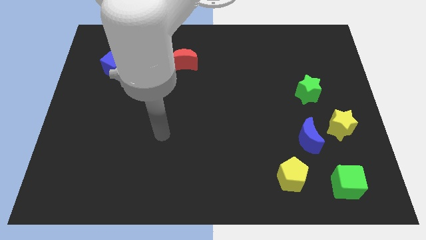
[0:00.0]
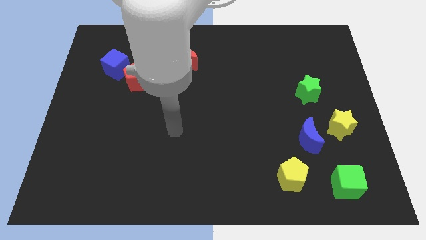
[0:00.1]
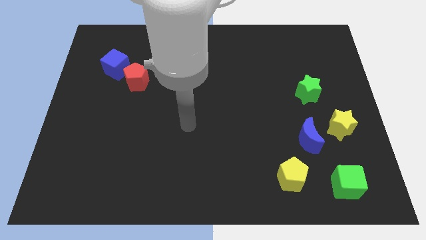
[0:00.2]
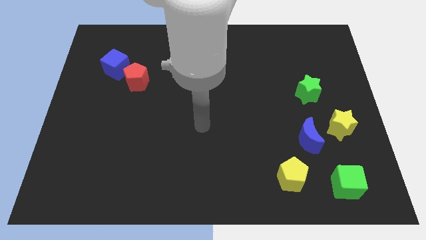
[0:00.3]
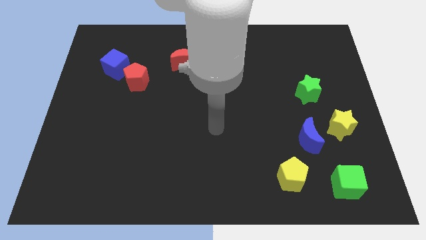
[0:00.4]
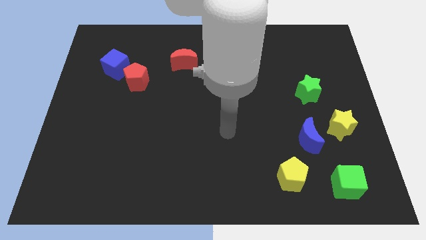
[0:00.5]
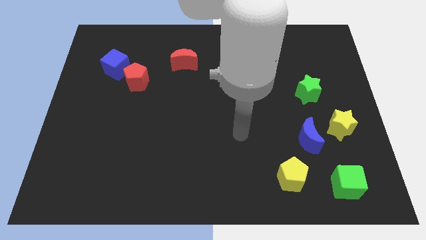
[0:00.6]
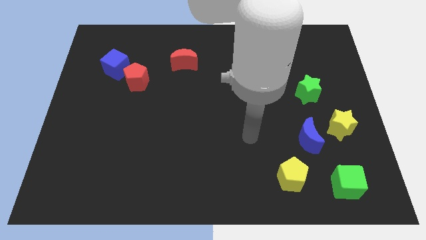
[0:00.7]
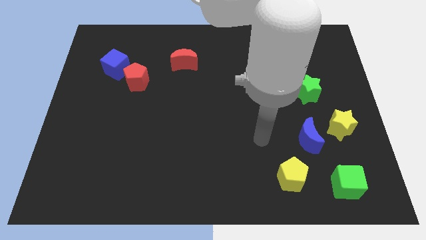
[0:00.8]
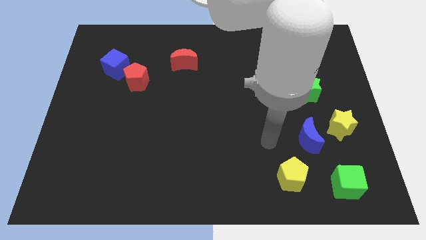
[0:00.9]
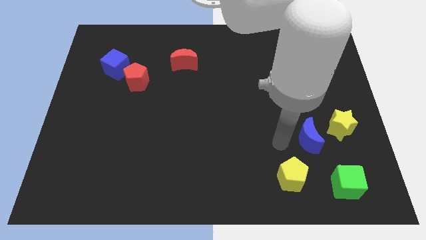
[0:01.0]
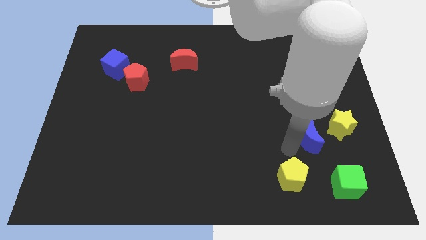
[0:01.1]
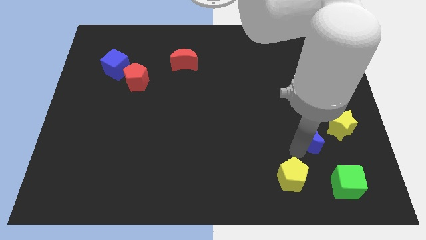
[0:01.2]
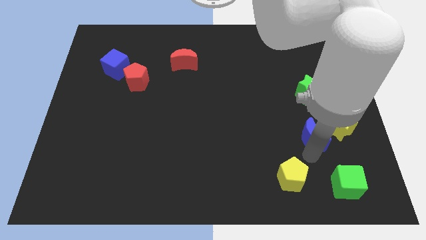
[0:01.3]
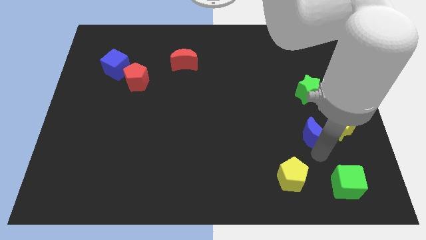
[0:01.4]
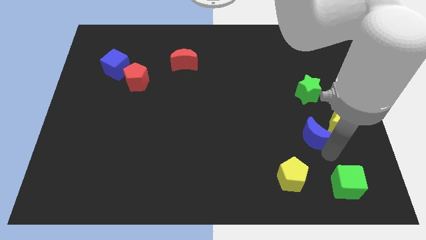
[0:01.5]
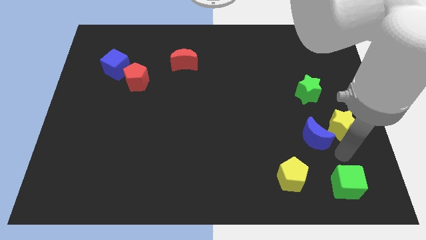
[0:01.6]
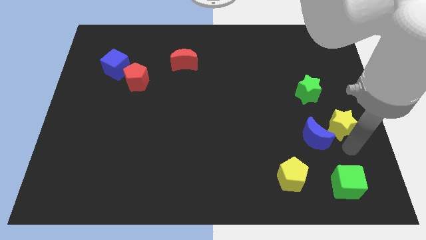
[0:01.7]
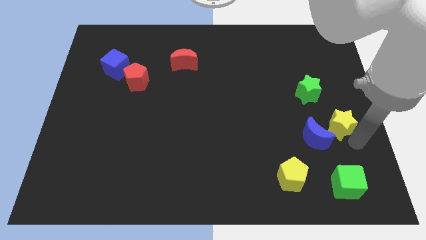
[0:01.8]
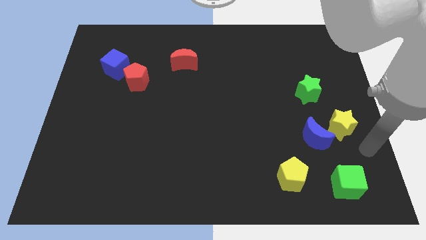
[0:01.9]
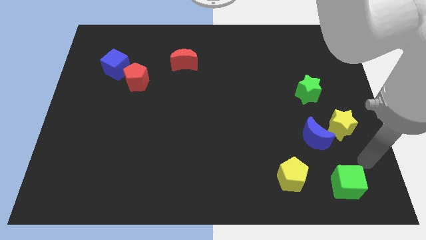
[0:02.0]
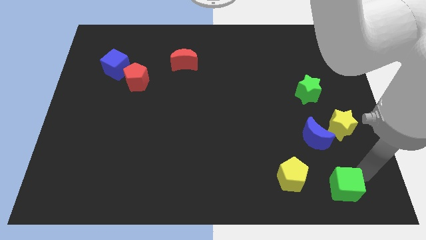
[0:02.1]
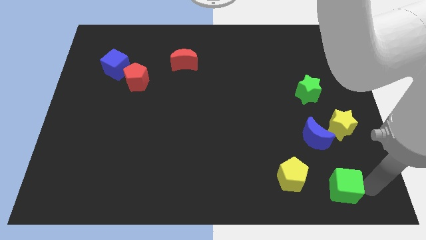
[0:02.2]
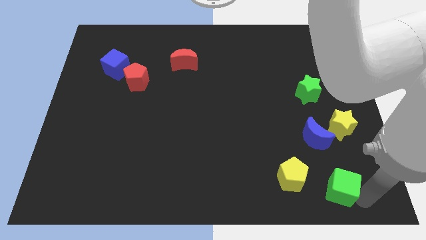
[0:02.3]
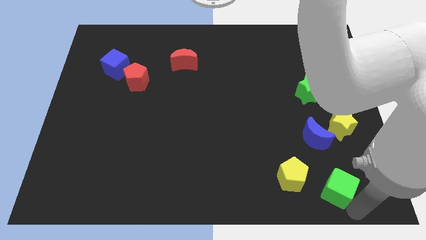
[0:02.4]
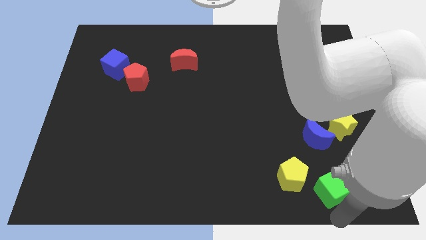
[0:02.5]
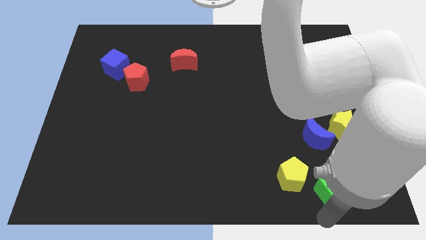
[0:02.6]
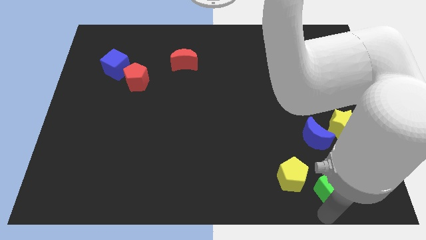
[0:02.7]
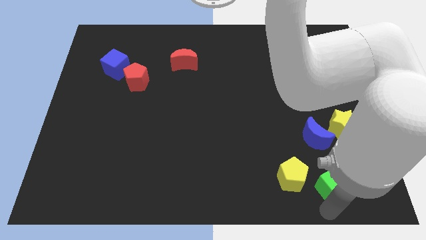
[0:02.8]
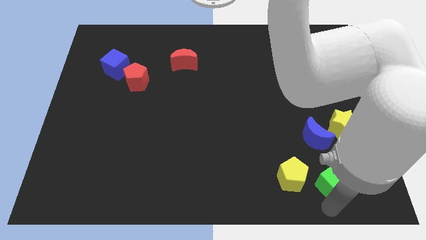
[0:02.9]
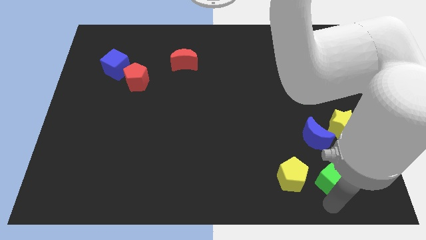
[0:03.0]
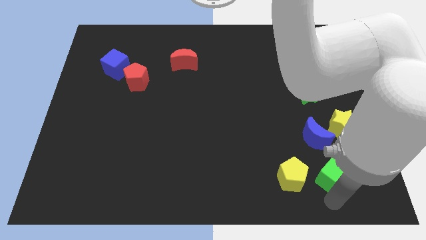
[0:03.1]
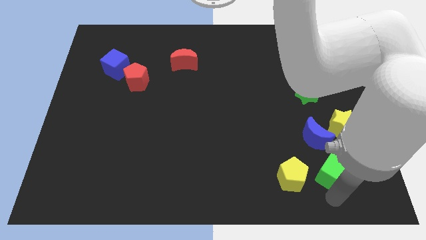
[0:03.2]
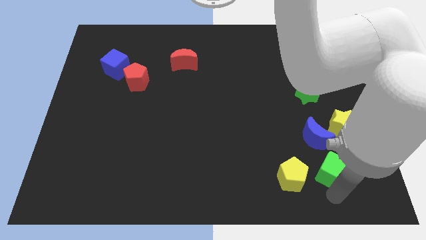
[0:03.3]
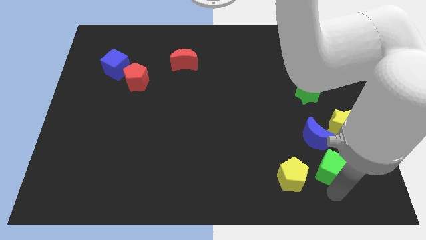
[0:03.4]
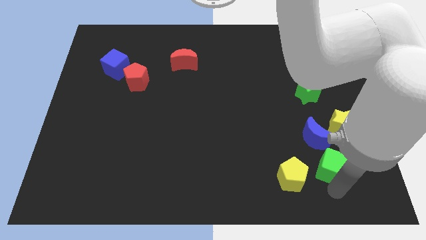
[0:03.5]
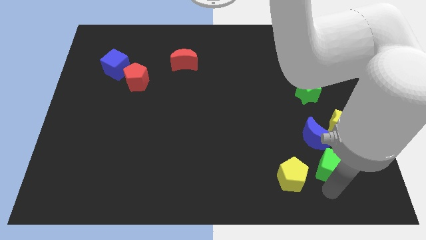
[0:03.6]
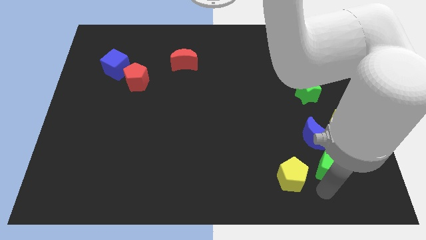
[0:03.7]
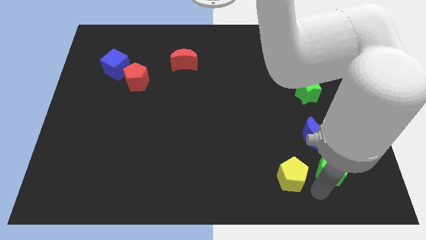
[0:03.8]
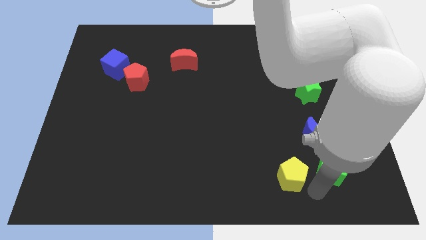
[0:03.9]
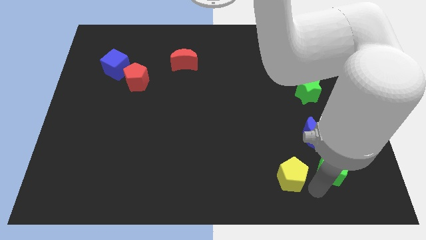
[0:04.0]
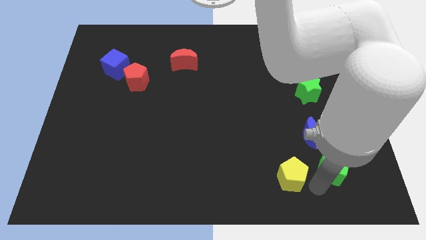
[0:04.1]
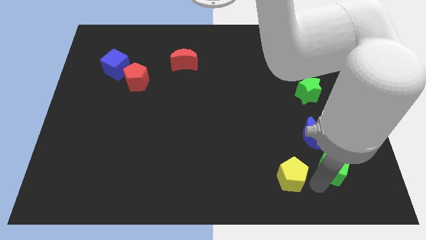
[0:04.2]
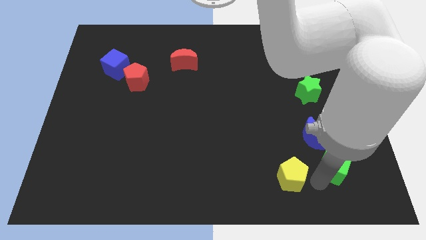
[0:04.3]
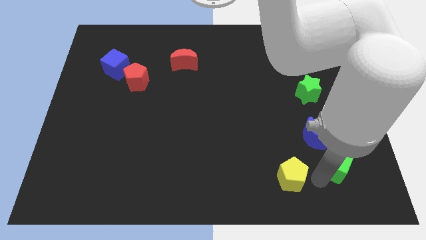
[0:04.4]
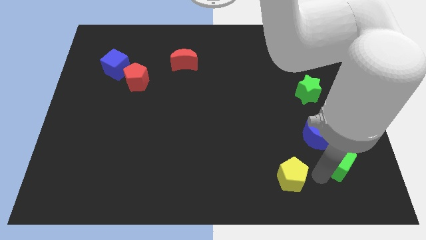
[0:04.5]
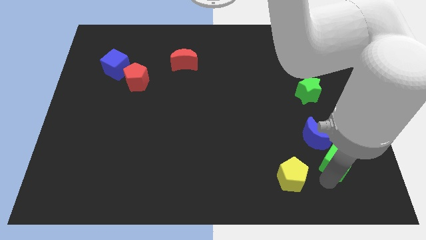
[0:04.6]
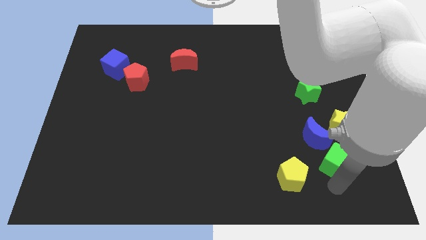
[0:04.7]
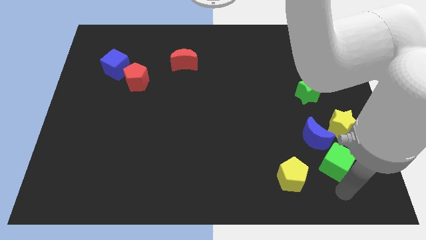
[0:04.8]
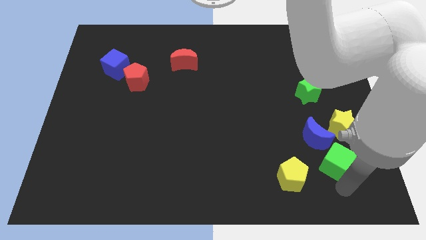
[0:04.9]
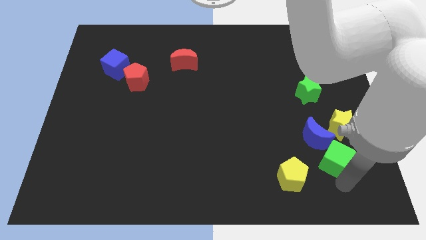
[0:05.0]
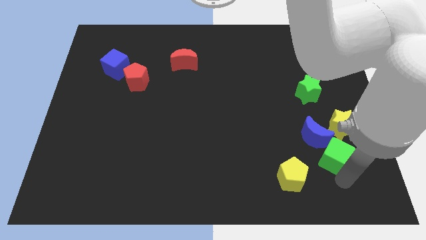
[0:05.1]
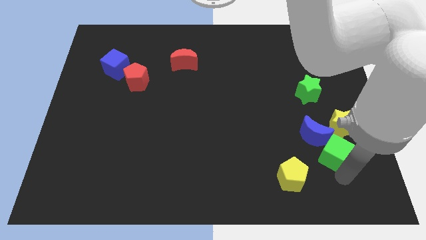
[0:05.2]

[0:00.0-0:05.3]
slightly move the green cube up

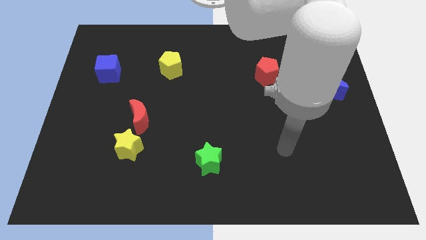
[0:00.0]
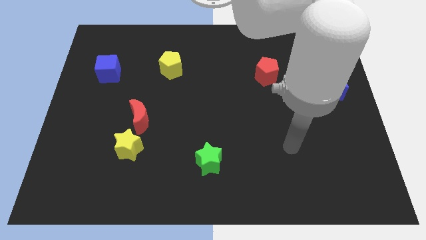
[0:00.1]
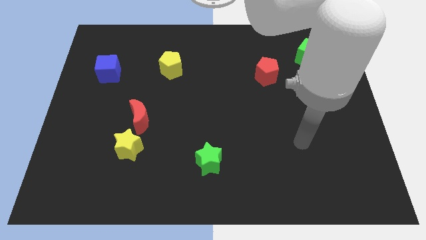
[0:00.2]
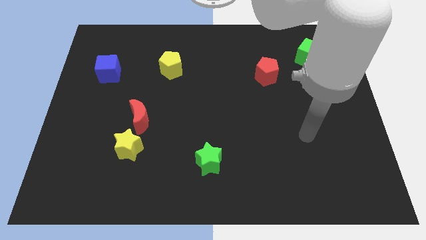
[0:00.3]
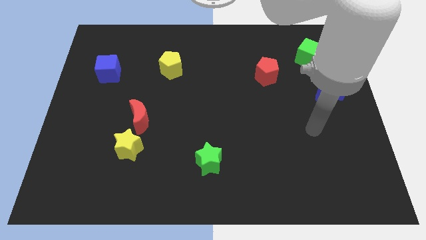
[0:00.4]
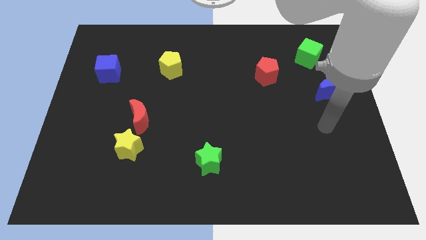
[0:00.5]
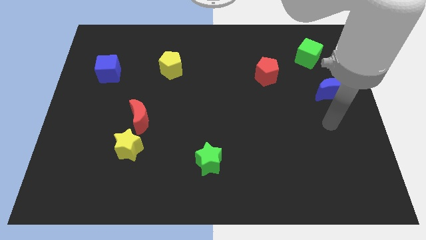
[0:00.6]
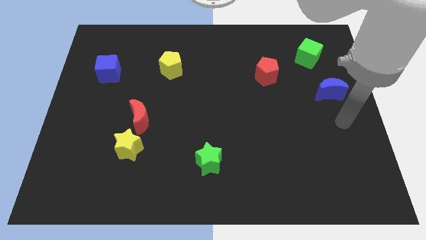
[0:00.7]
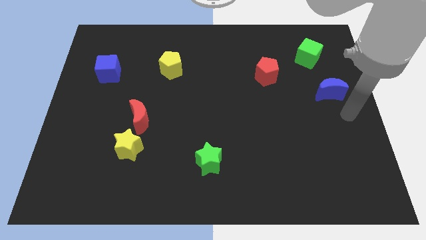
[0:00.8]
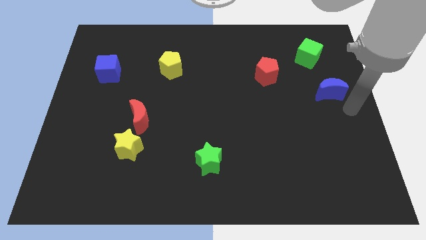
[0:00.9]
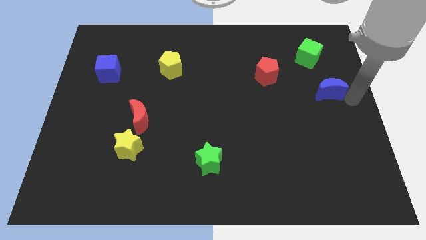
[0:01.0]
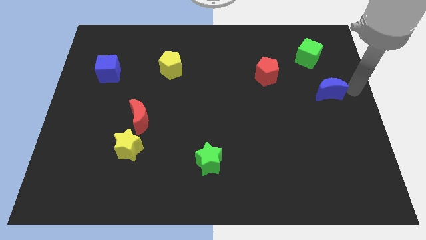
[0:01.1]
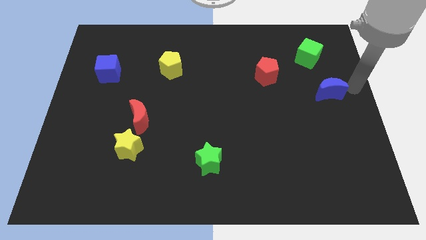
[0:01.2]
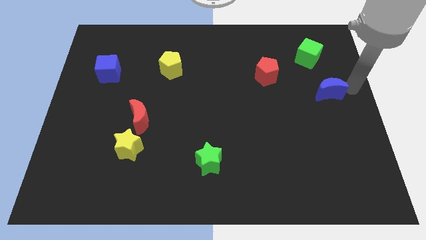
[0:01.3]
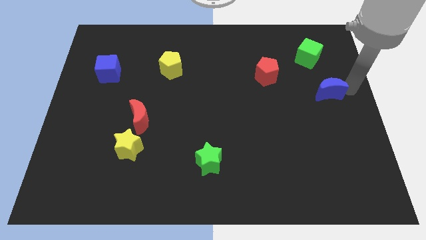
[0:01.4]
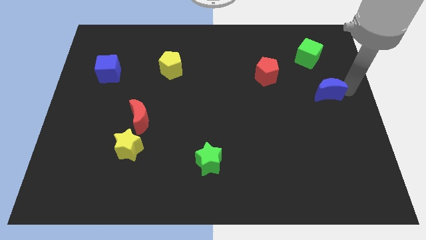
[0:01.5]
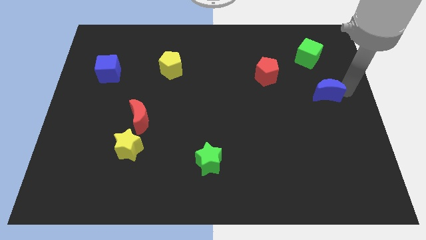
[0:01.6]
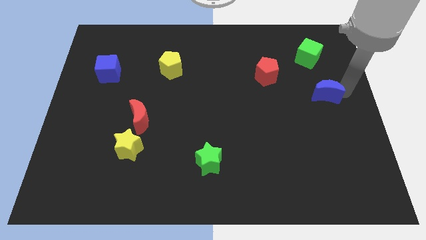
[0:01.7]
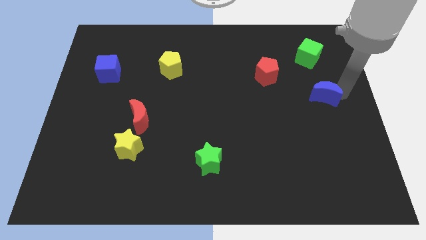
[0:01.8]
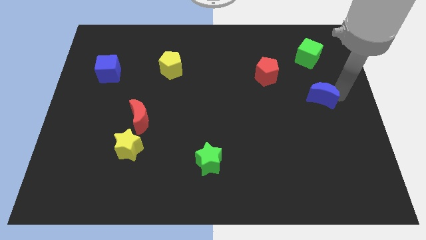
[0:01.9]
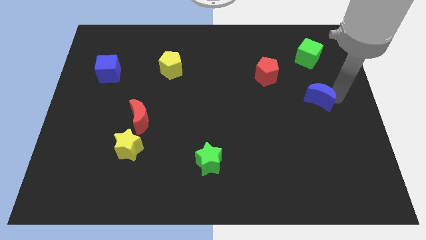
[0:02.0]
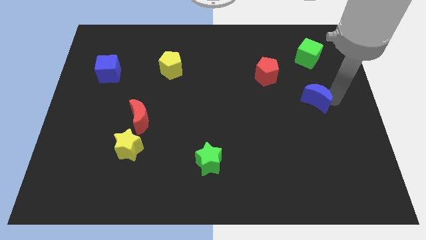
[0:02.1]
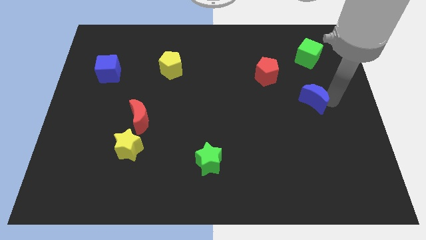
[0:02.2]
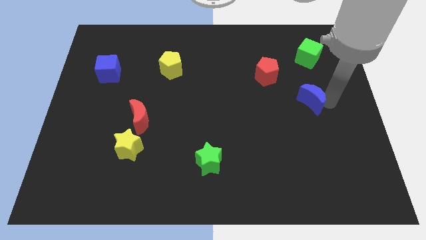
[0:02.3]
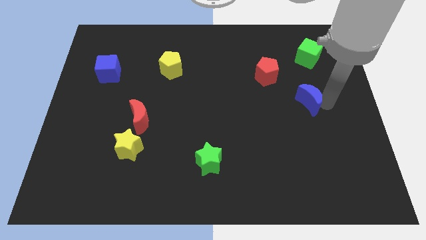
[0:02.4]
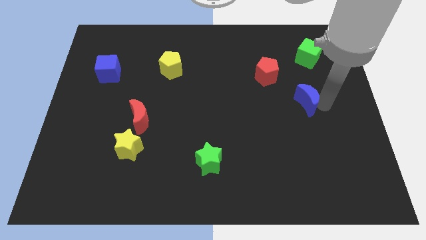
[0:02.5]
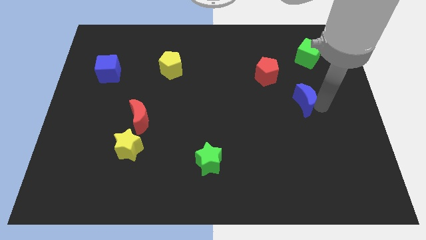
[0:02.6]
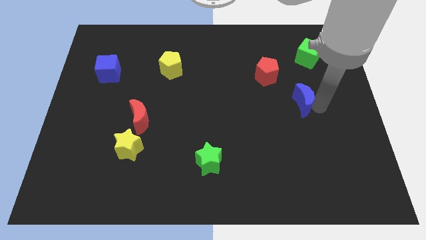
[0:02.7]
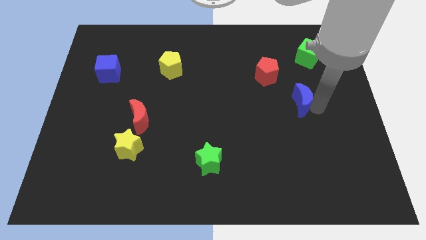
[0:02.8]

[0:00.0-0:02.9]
slide the blue moon somewhat to the left
